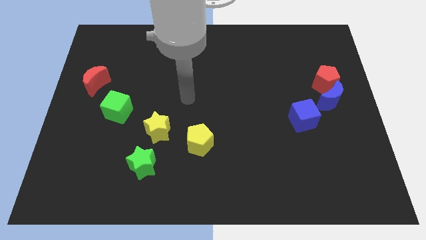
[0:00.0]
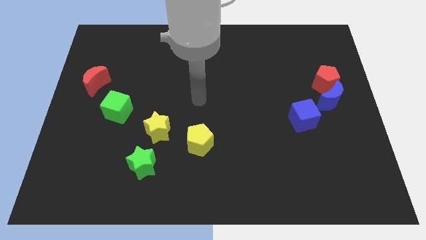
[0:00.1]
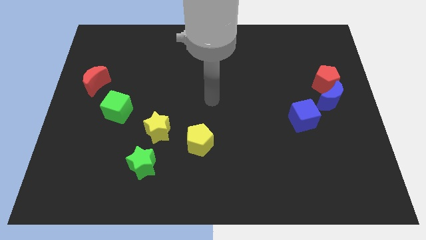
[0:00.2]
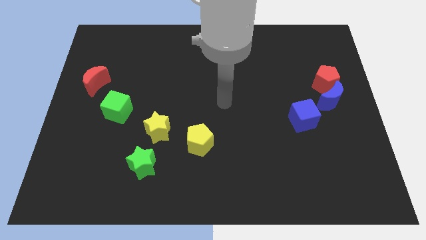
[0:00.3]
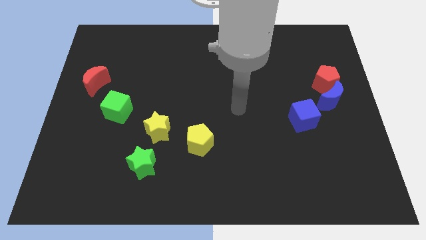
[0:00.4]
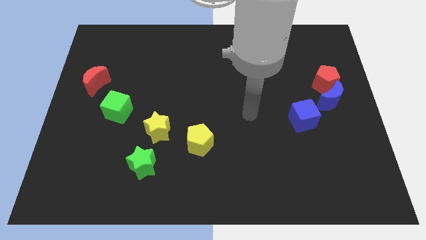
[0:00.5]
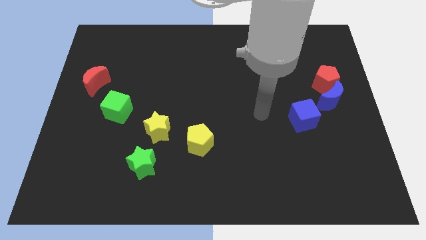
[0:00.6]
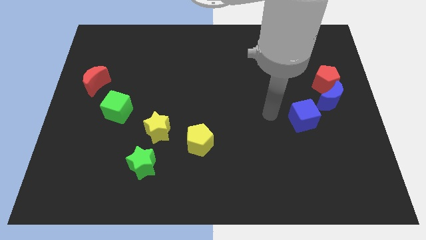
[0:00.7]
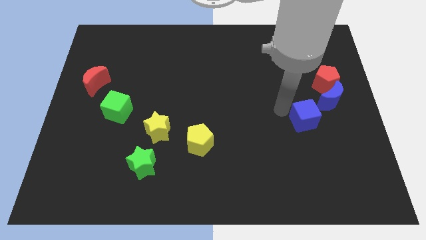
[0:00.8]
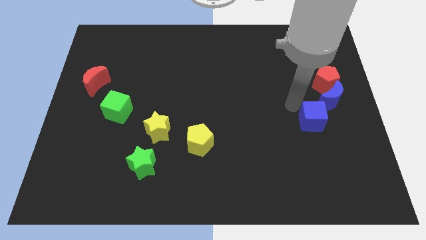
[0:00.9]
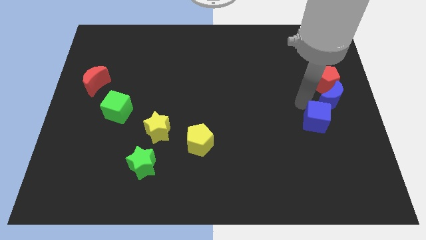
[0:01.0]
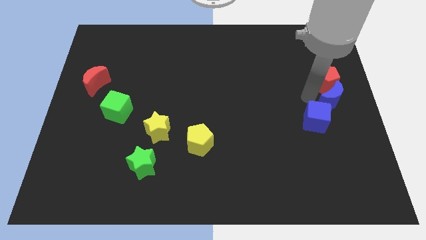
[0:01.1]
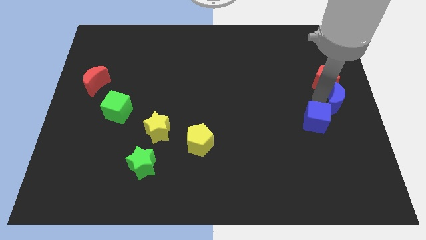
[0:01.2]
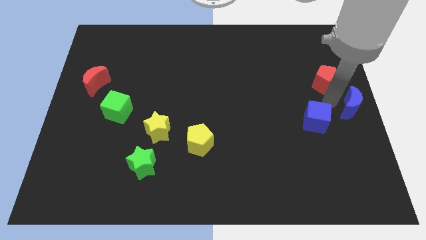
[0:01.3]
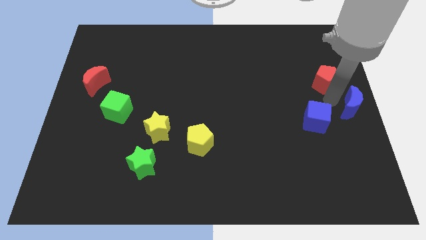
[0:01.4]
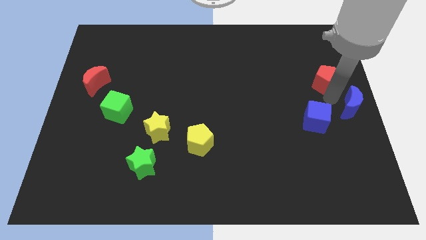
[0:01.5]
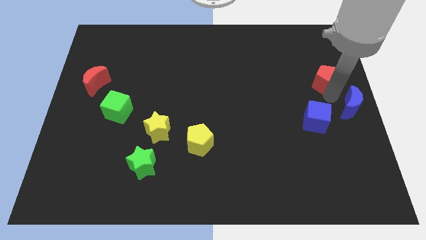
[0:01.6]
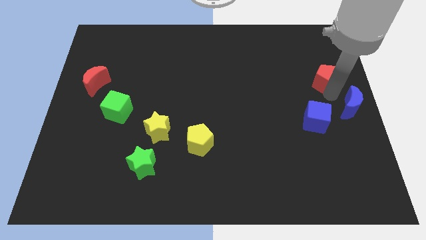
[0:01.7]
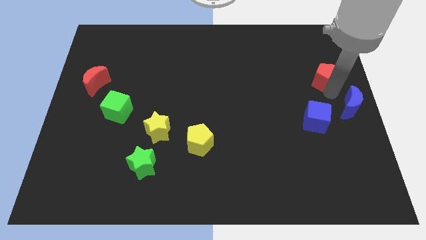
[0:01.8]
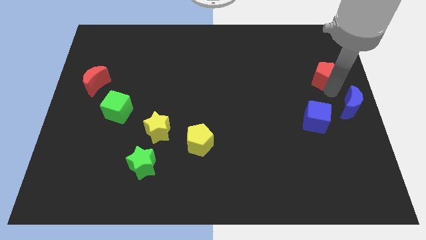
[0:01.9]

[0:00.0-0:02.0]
separate the red pentagon from the blue moon

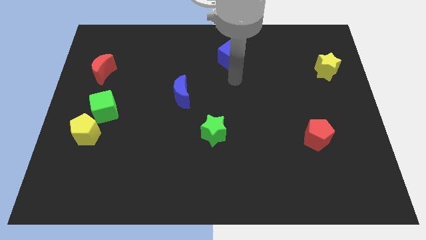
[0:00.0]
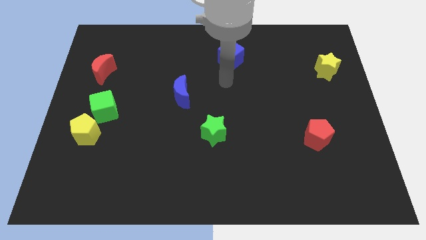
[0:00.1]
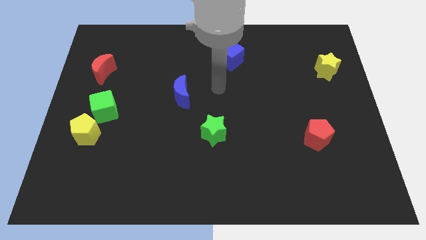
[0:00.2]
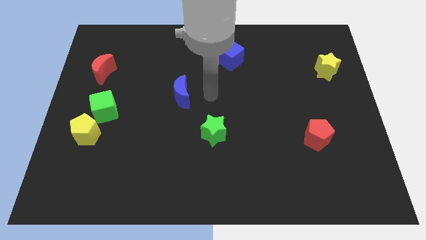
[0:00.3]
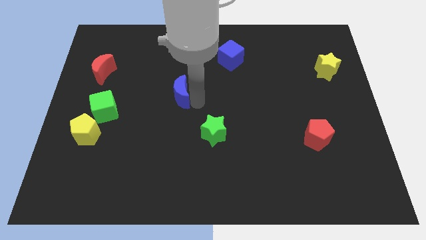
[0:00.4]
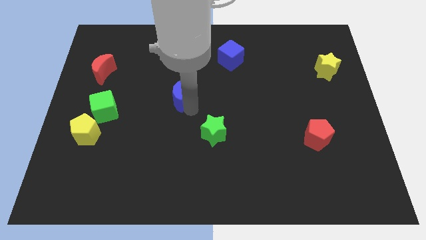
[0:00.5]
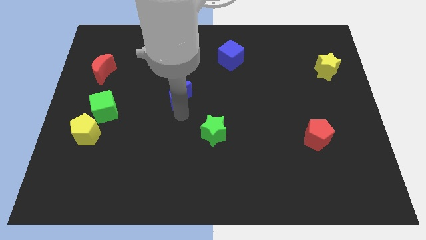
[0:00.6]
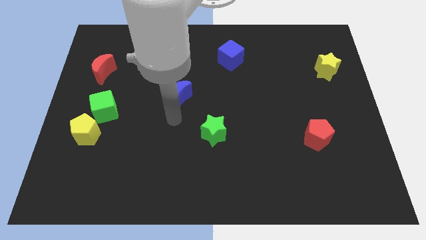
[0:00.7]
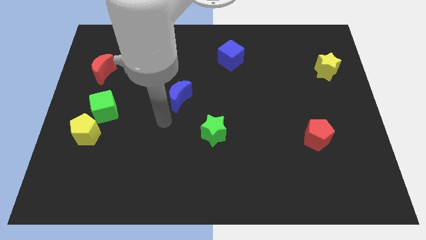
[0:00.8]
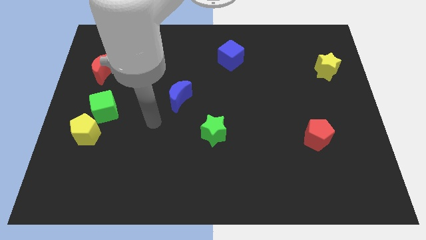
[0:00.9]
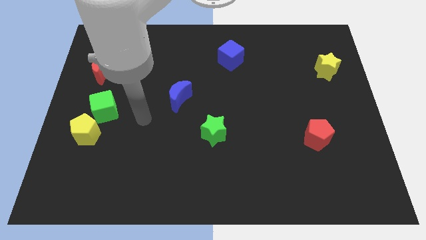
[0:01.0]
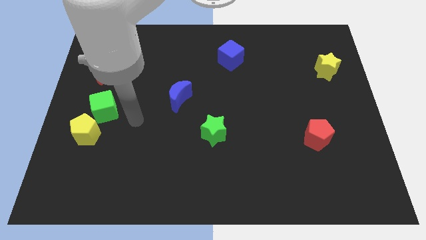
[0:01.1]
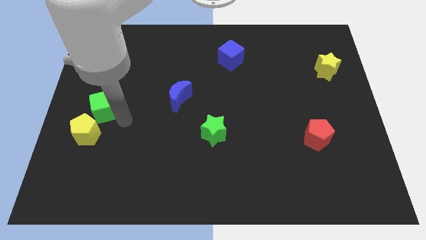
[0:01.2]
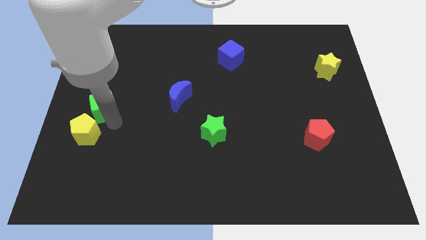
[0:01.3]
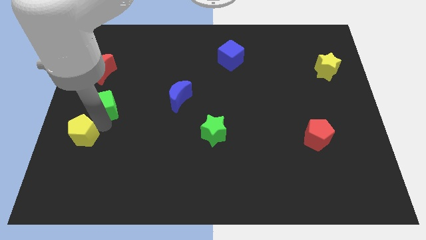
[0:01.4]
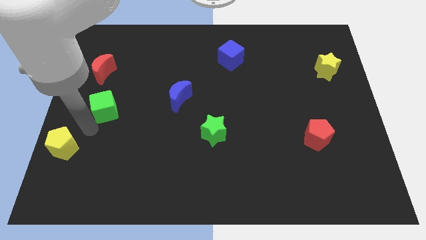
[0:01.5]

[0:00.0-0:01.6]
pull the green cube apart from the yellow pentagon

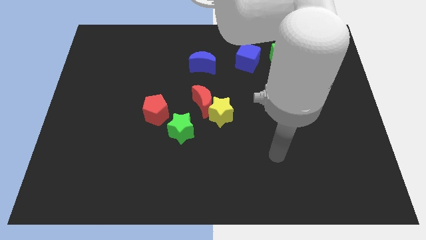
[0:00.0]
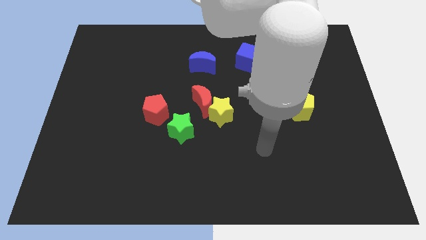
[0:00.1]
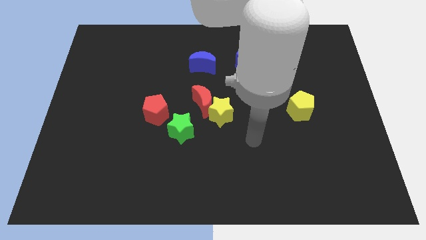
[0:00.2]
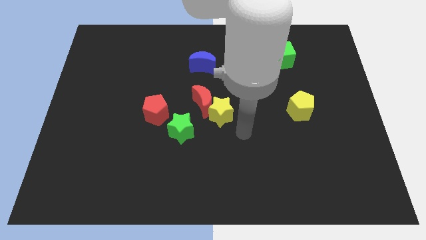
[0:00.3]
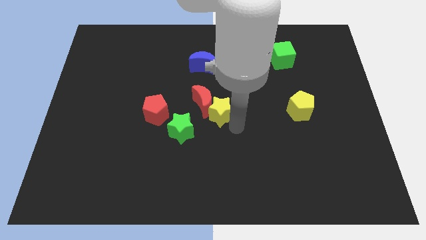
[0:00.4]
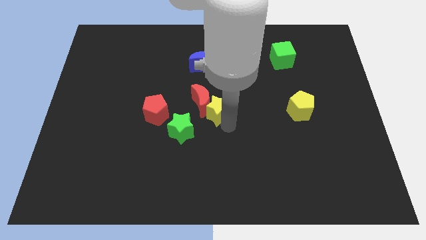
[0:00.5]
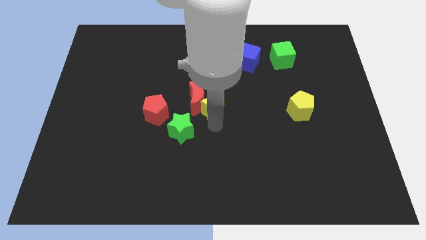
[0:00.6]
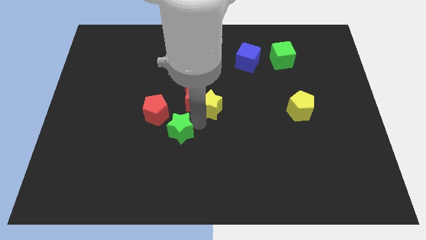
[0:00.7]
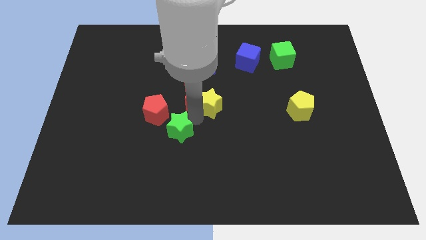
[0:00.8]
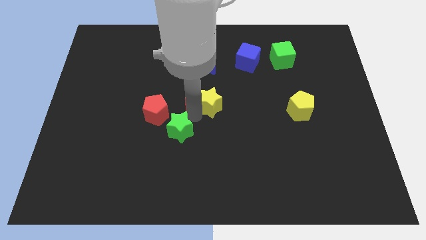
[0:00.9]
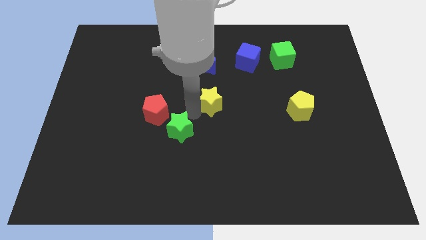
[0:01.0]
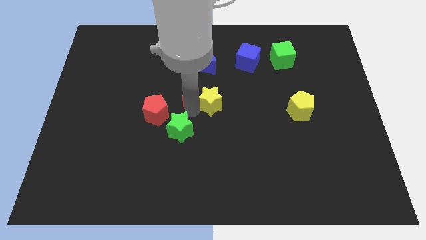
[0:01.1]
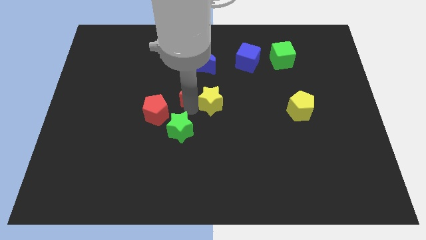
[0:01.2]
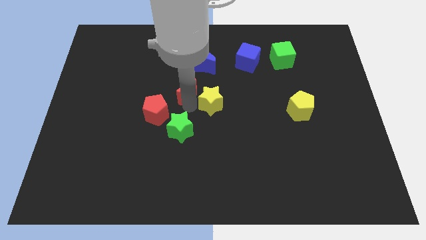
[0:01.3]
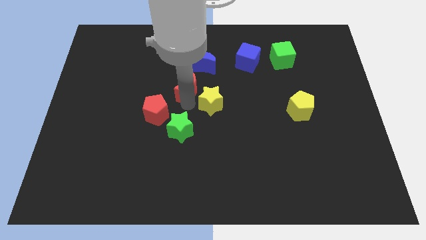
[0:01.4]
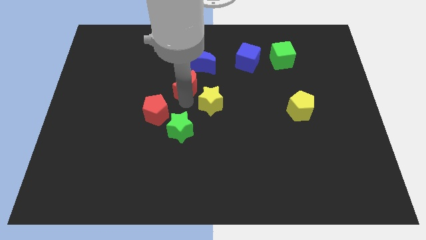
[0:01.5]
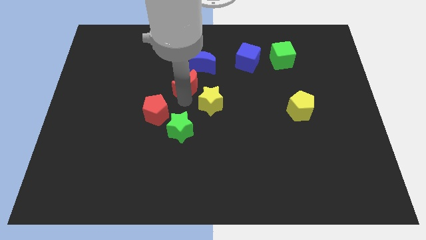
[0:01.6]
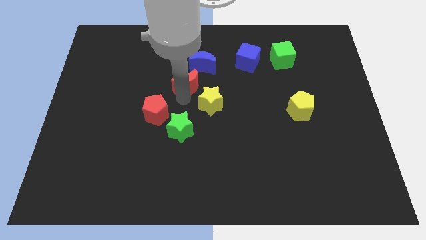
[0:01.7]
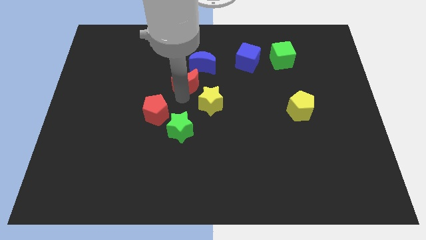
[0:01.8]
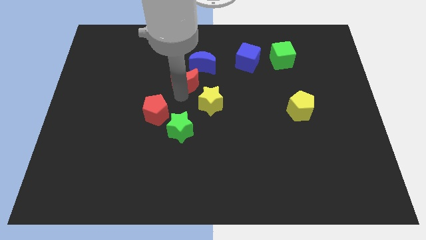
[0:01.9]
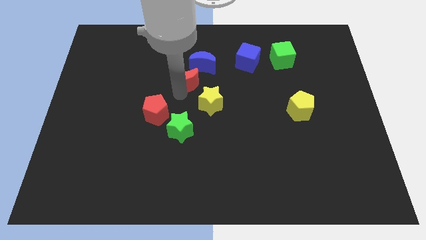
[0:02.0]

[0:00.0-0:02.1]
pull the red moon apart from the yellow star and green star

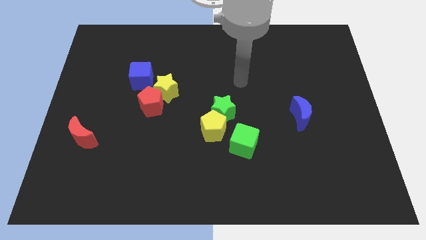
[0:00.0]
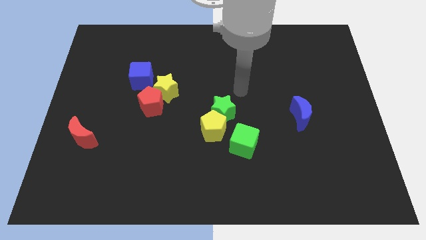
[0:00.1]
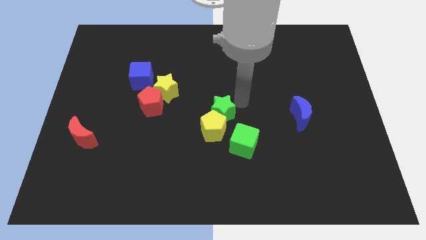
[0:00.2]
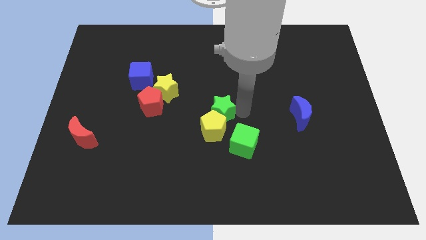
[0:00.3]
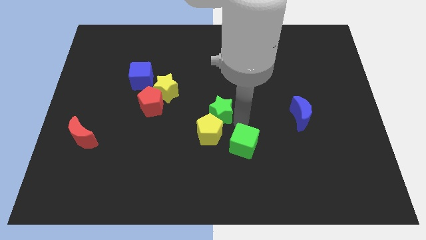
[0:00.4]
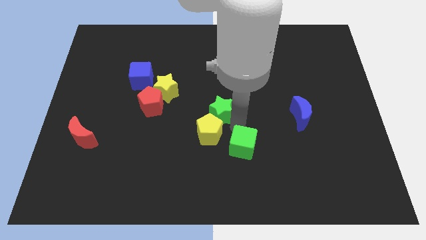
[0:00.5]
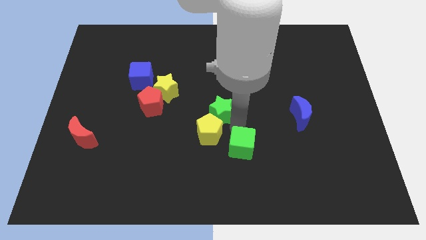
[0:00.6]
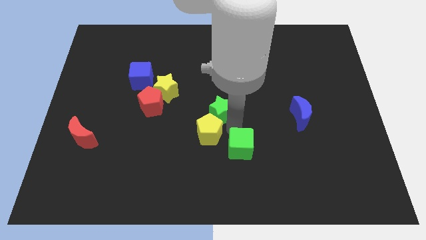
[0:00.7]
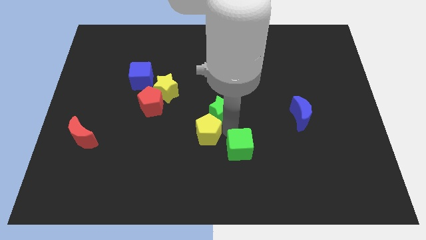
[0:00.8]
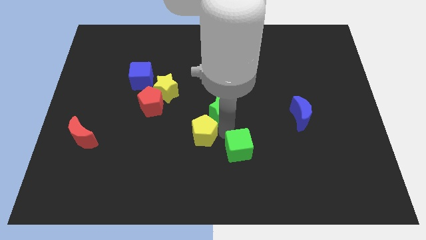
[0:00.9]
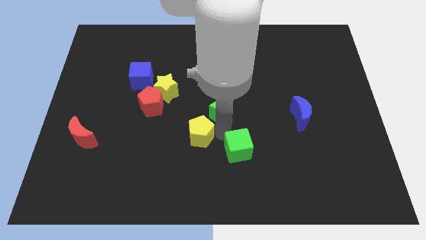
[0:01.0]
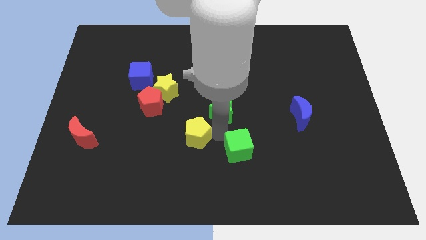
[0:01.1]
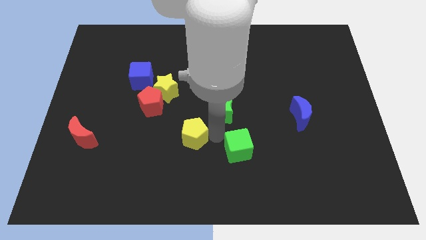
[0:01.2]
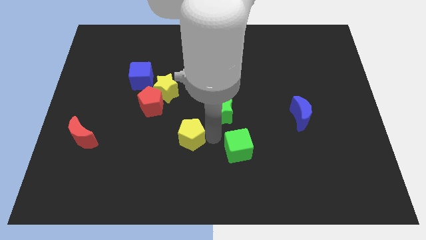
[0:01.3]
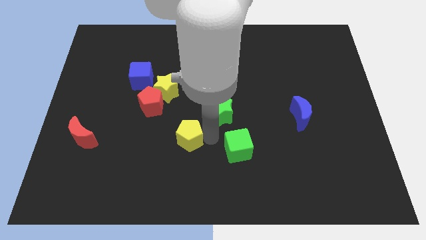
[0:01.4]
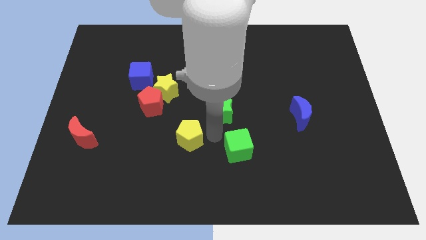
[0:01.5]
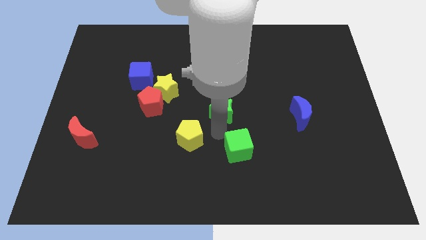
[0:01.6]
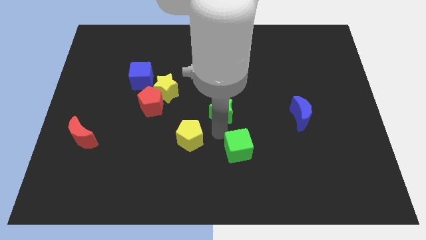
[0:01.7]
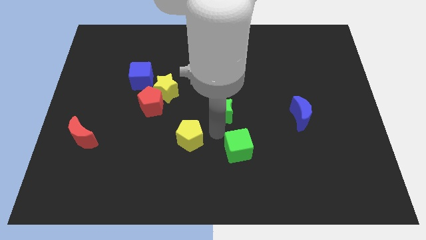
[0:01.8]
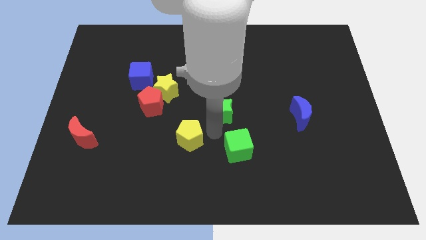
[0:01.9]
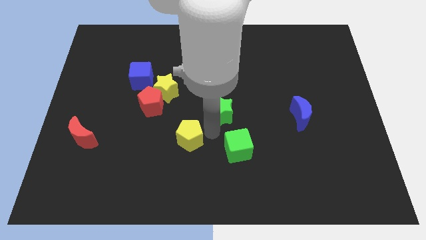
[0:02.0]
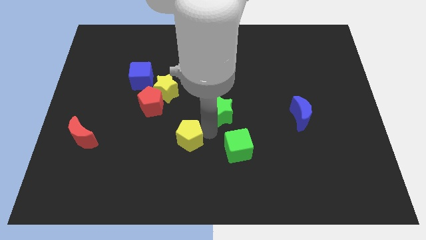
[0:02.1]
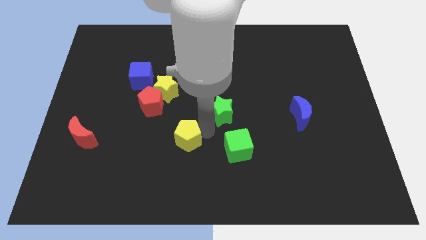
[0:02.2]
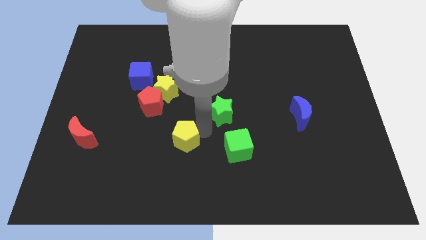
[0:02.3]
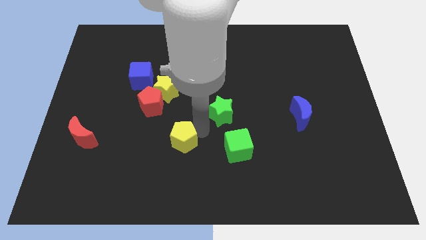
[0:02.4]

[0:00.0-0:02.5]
separate the yellow pentagon from the green star and green cube

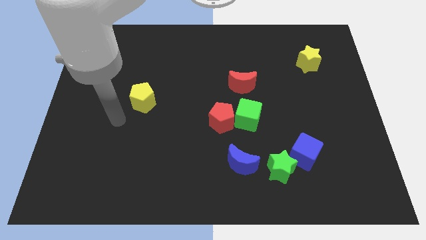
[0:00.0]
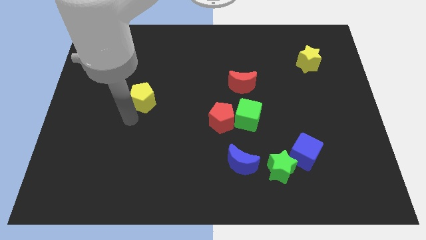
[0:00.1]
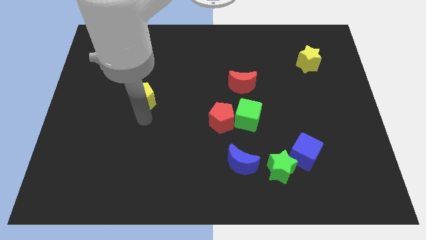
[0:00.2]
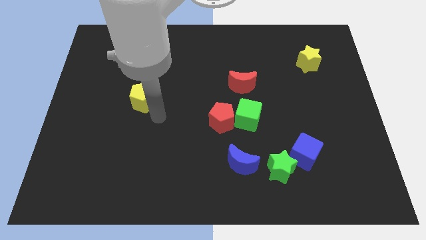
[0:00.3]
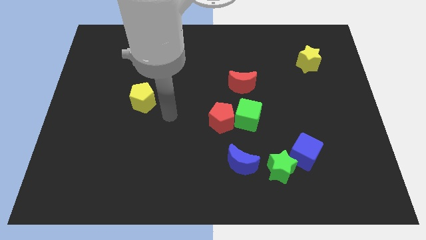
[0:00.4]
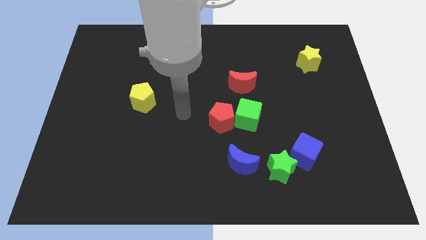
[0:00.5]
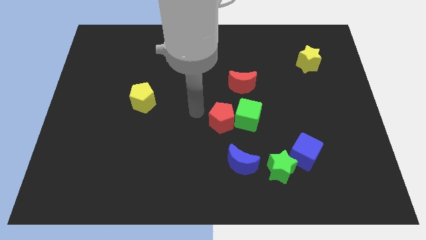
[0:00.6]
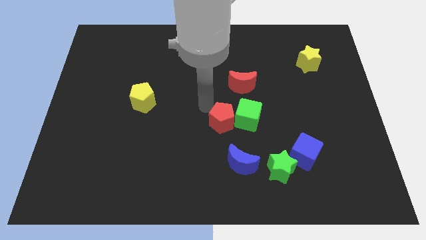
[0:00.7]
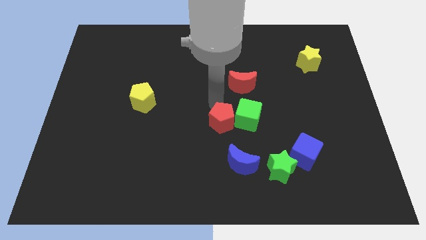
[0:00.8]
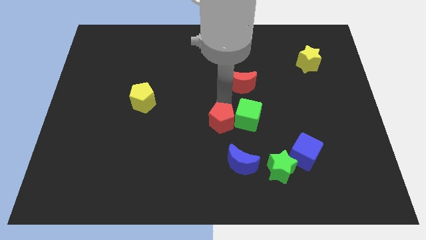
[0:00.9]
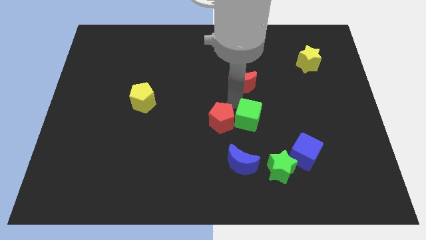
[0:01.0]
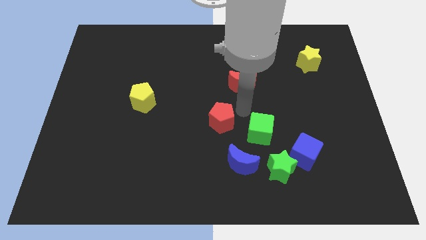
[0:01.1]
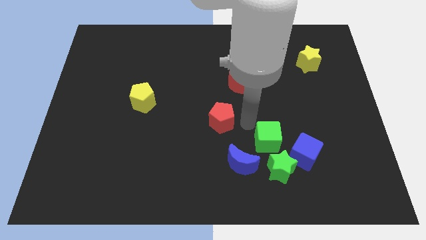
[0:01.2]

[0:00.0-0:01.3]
move the red pentagon away from the green cube

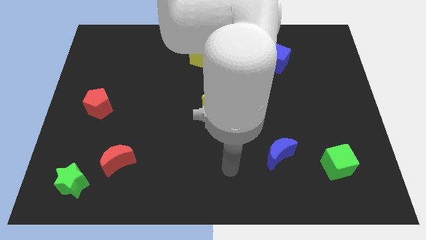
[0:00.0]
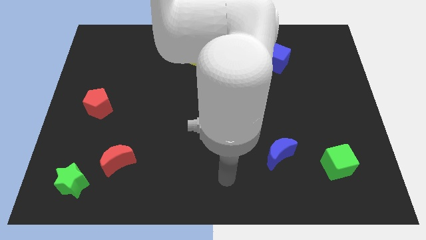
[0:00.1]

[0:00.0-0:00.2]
move the red moon away from the green star
